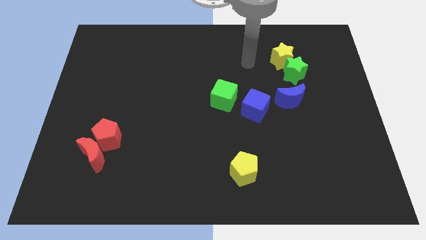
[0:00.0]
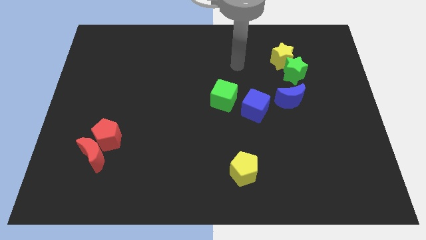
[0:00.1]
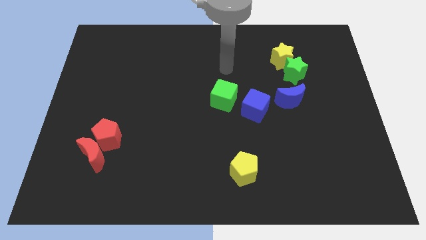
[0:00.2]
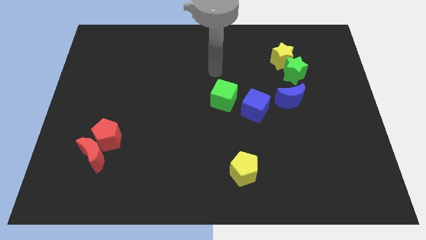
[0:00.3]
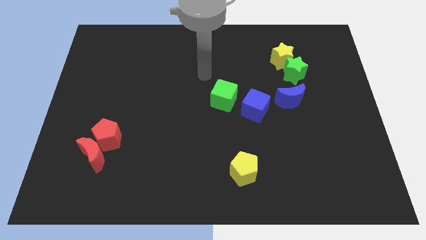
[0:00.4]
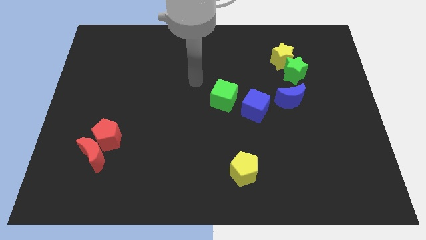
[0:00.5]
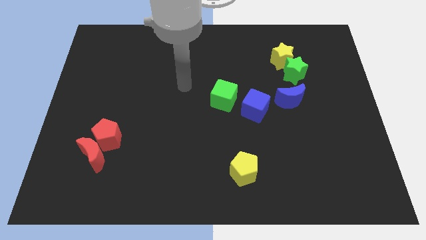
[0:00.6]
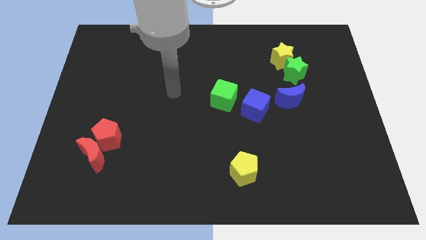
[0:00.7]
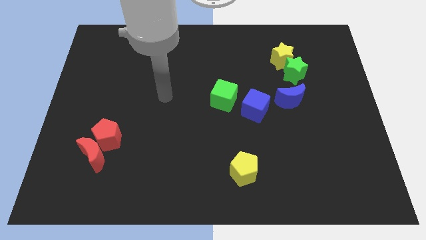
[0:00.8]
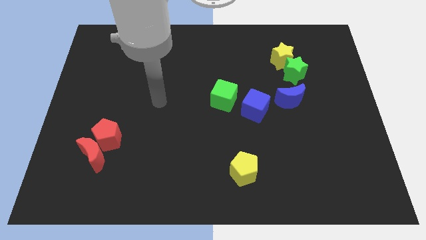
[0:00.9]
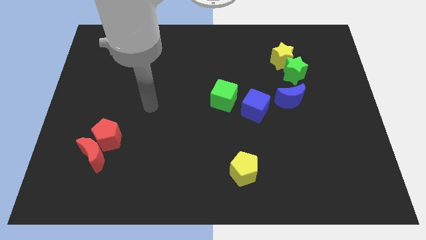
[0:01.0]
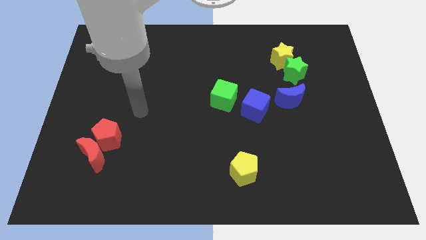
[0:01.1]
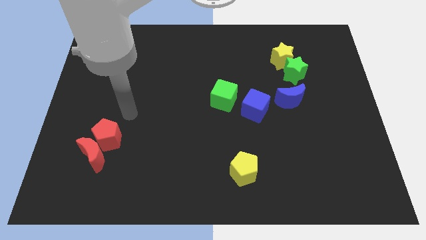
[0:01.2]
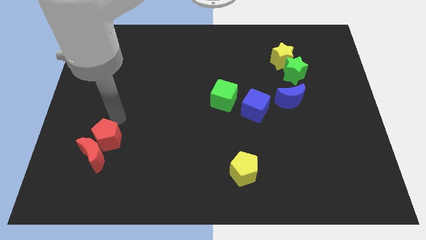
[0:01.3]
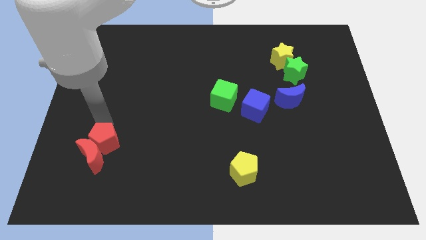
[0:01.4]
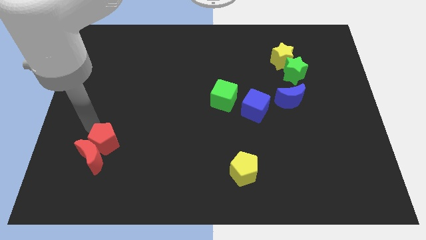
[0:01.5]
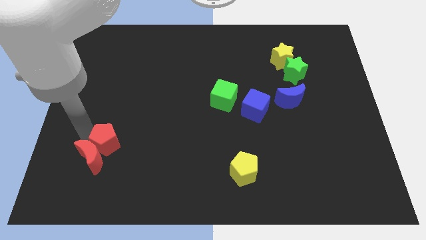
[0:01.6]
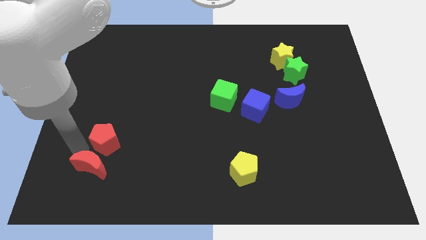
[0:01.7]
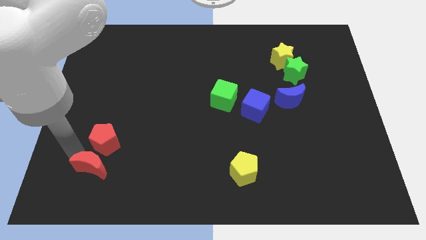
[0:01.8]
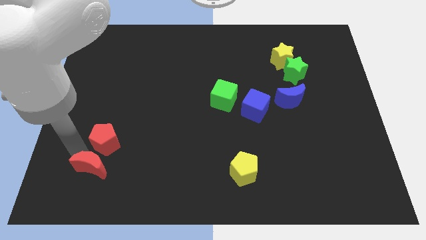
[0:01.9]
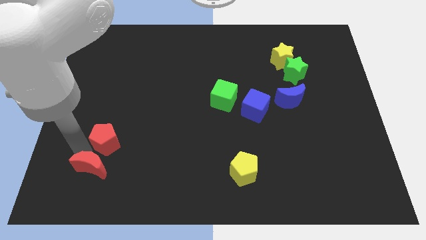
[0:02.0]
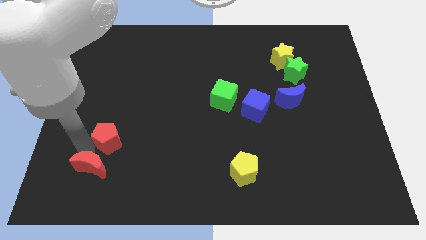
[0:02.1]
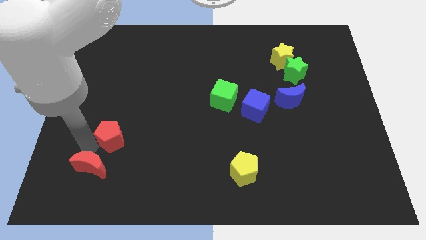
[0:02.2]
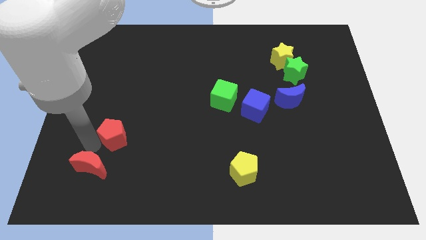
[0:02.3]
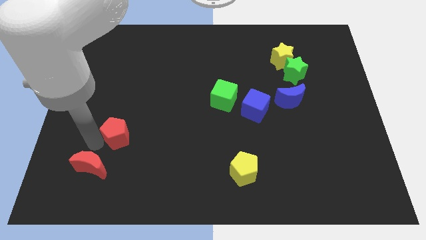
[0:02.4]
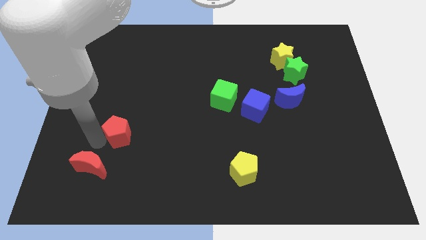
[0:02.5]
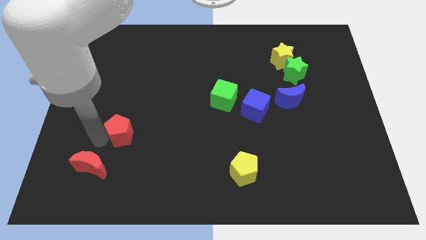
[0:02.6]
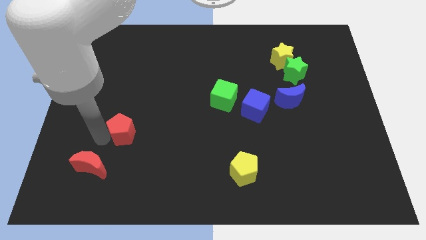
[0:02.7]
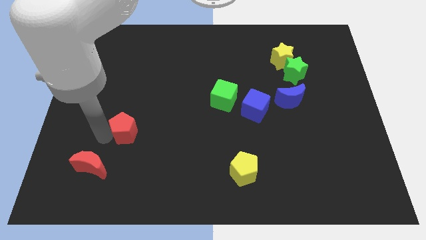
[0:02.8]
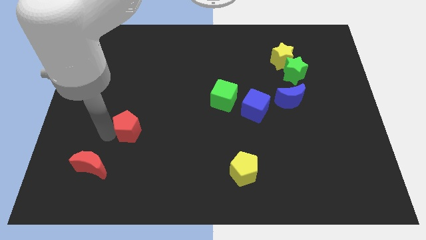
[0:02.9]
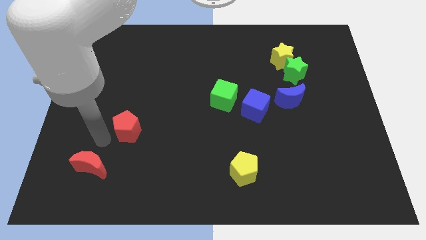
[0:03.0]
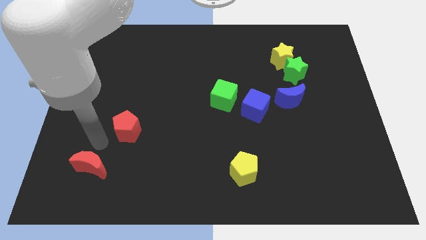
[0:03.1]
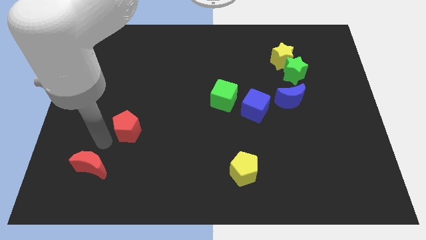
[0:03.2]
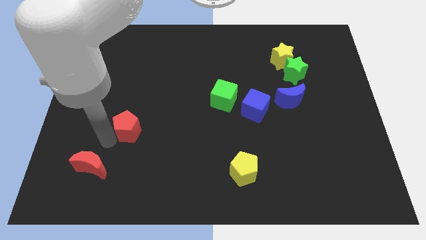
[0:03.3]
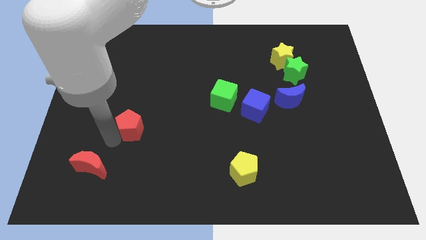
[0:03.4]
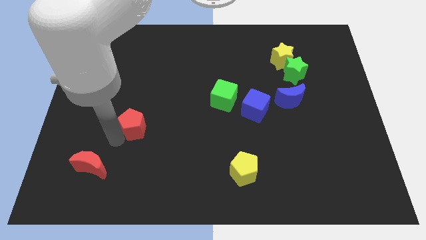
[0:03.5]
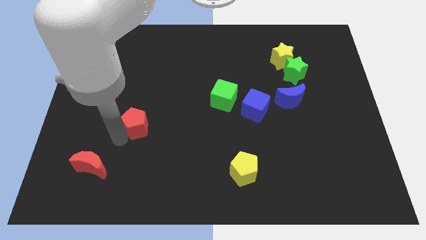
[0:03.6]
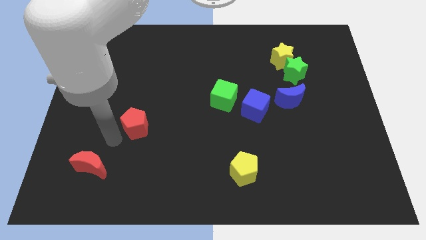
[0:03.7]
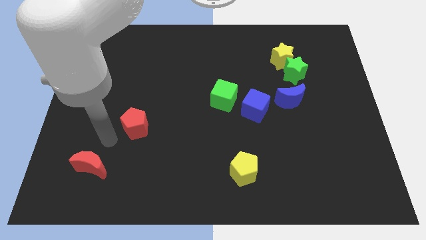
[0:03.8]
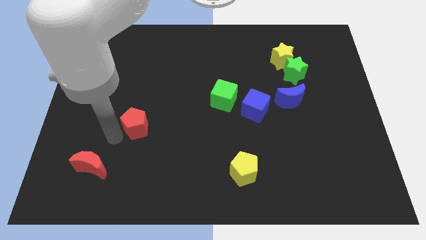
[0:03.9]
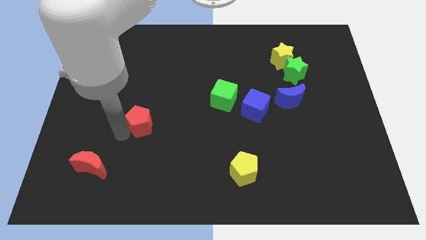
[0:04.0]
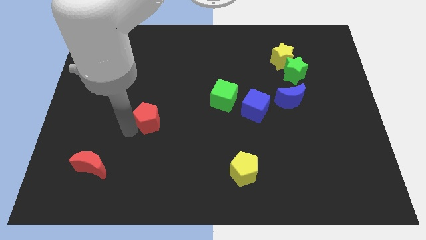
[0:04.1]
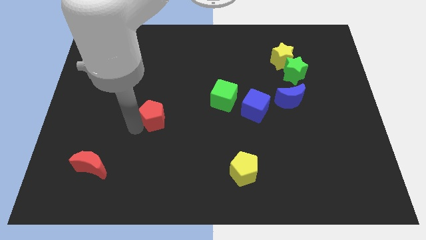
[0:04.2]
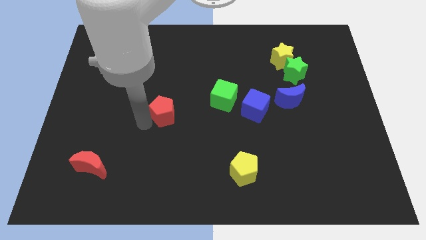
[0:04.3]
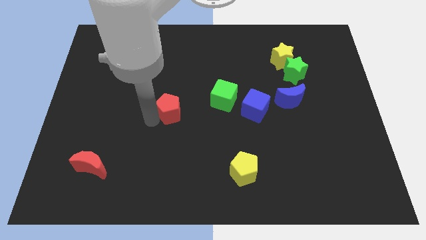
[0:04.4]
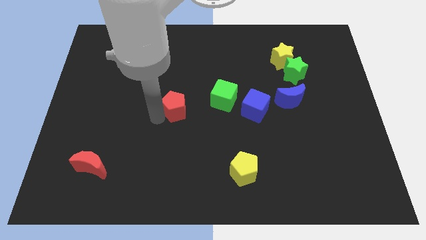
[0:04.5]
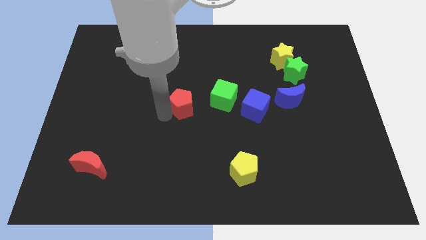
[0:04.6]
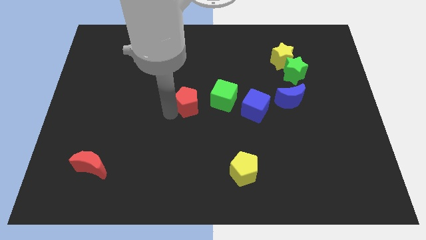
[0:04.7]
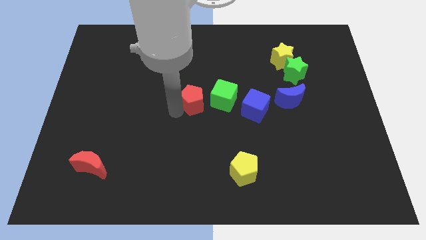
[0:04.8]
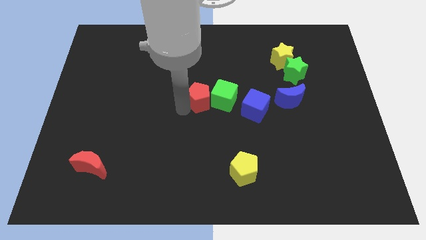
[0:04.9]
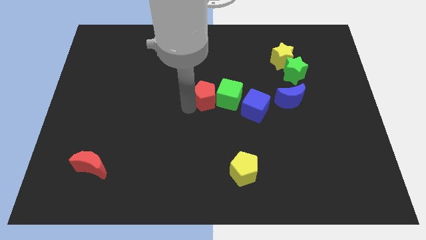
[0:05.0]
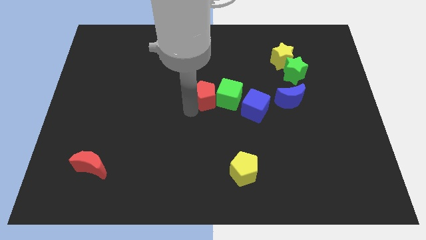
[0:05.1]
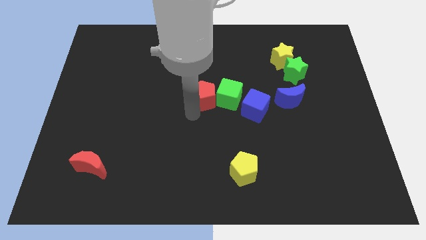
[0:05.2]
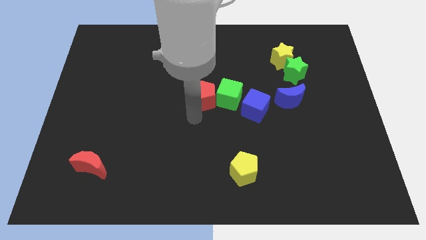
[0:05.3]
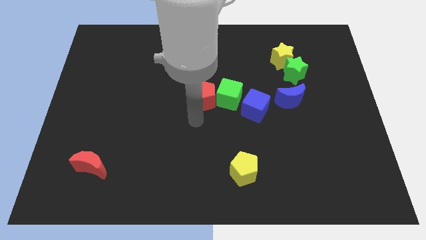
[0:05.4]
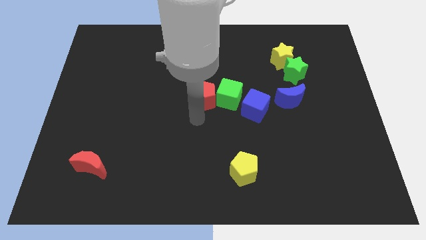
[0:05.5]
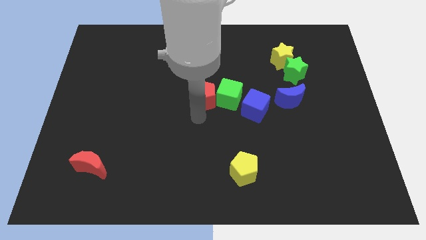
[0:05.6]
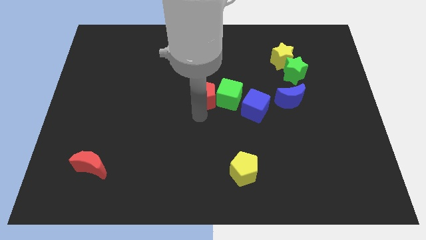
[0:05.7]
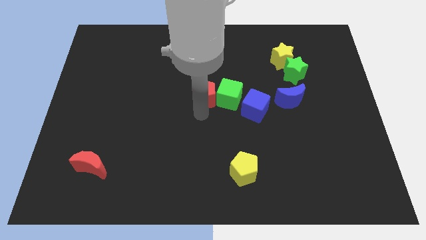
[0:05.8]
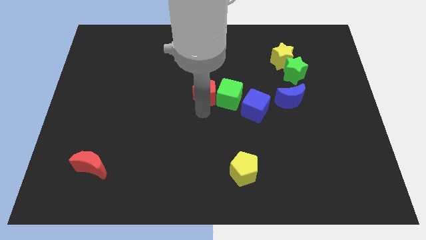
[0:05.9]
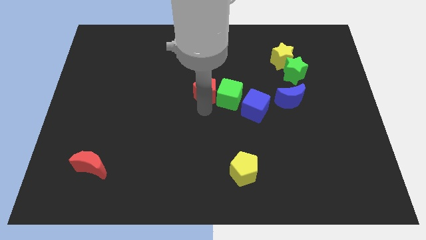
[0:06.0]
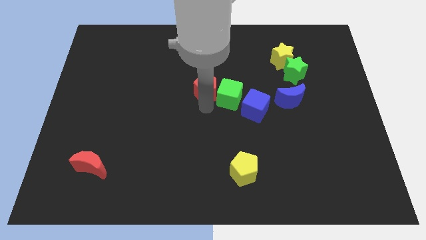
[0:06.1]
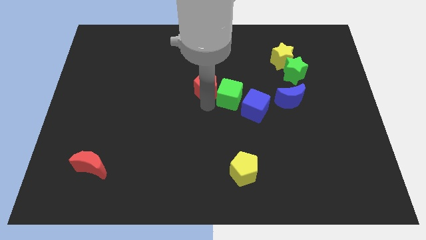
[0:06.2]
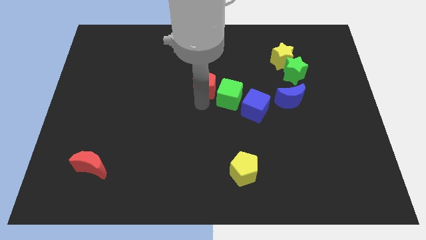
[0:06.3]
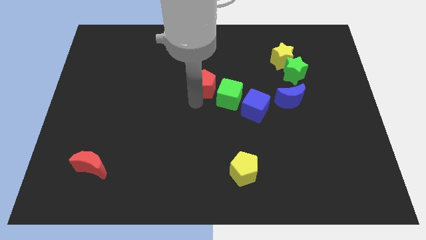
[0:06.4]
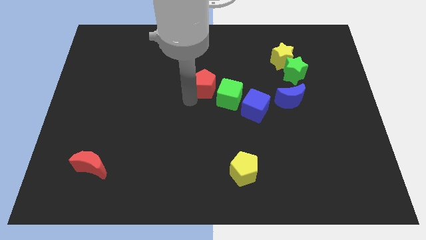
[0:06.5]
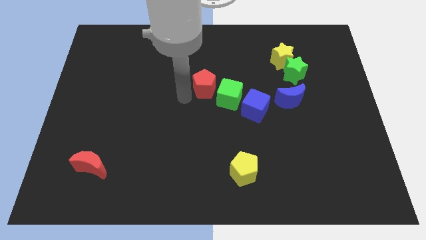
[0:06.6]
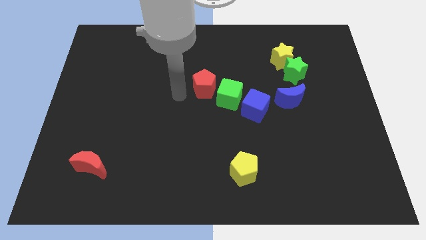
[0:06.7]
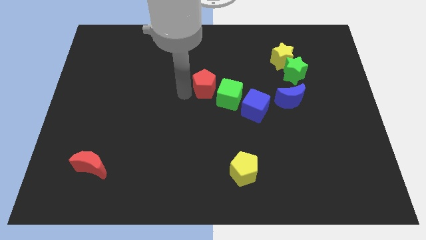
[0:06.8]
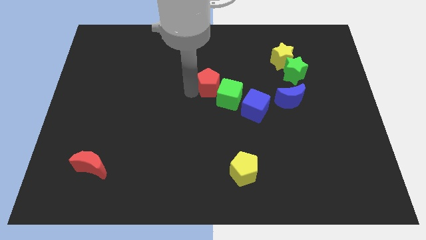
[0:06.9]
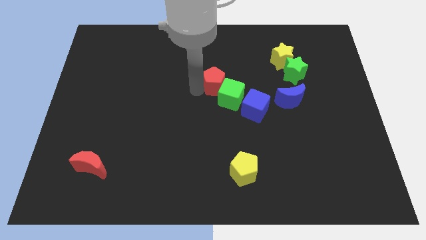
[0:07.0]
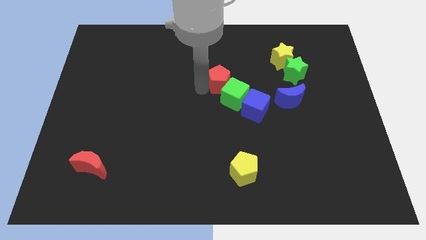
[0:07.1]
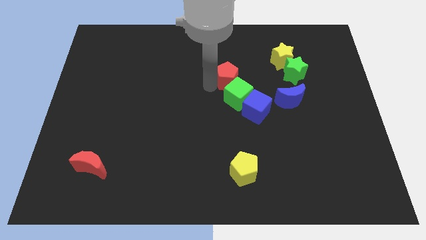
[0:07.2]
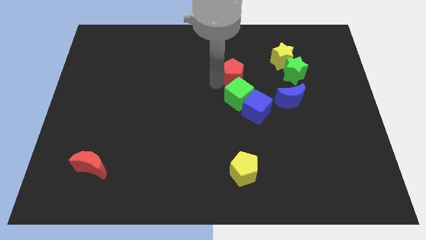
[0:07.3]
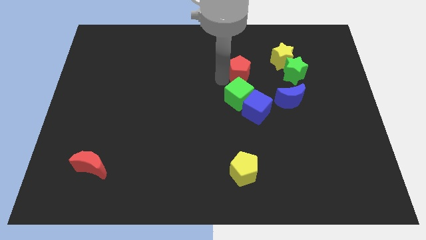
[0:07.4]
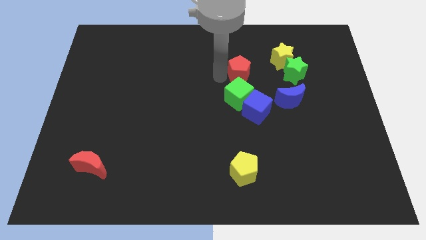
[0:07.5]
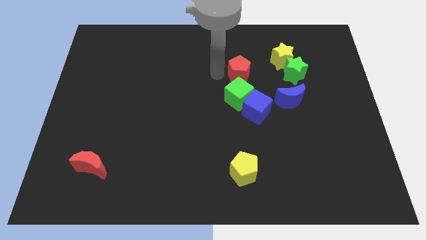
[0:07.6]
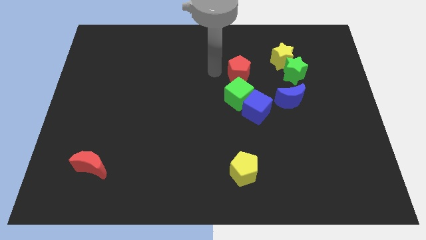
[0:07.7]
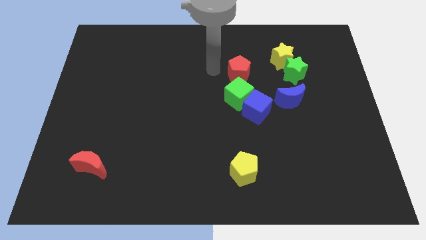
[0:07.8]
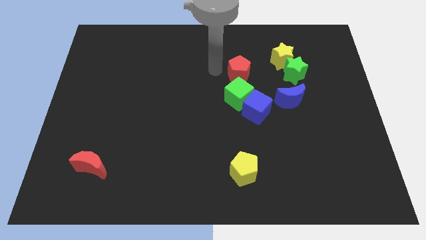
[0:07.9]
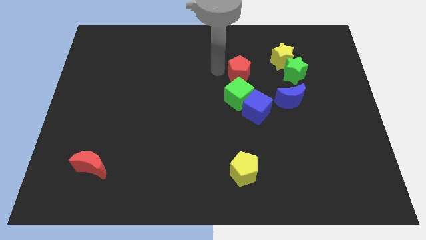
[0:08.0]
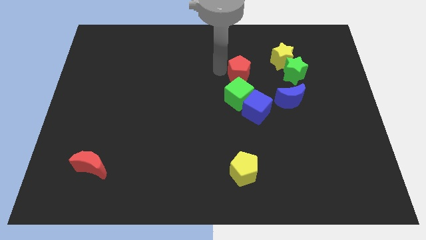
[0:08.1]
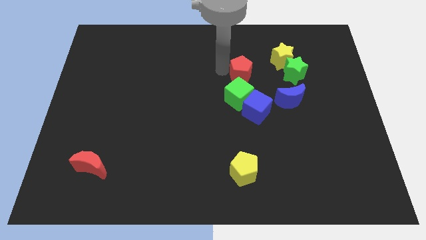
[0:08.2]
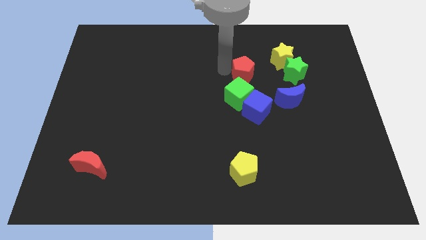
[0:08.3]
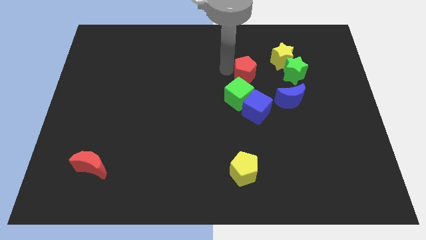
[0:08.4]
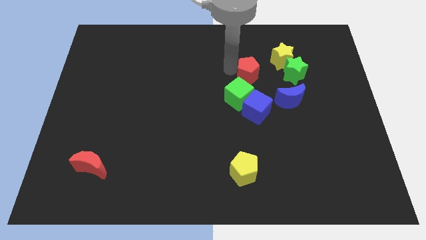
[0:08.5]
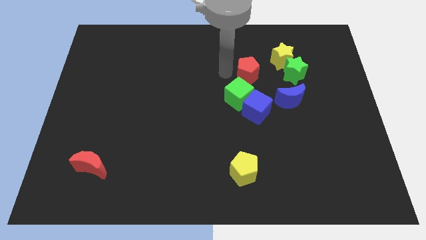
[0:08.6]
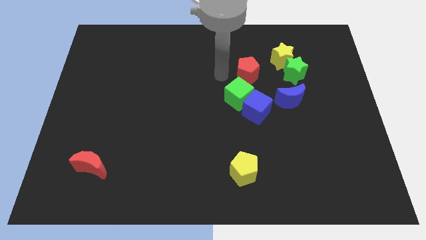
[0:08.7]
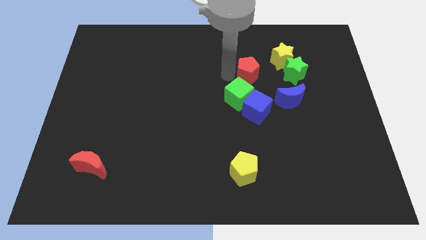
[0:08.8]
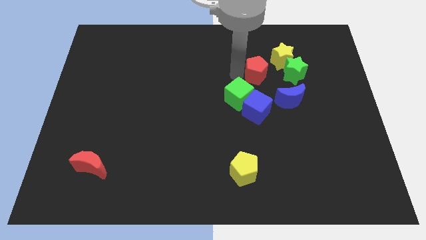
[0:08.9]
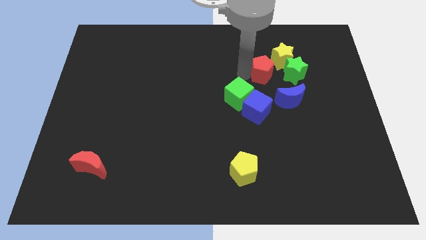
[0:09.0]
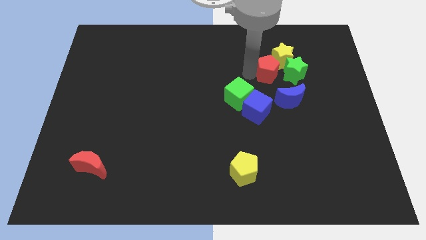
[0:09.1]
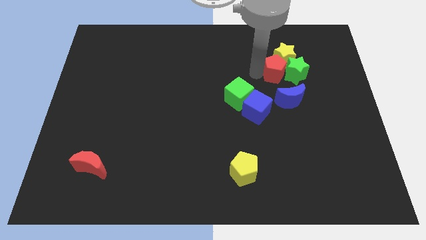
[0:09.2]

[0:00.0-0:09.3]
slide the red pentagon next to the green star
